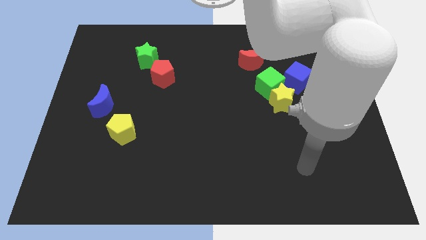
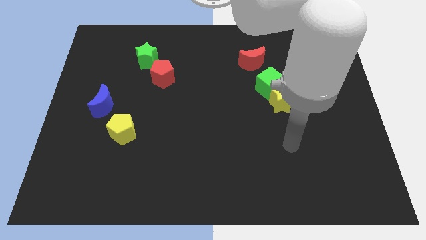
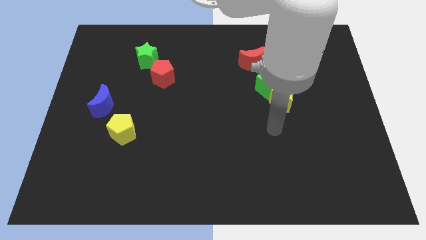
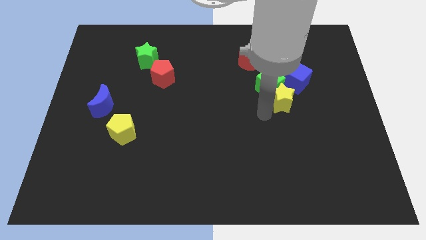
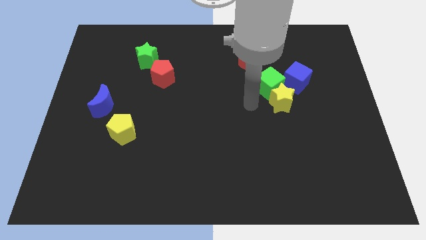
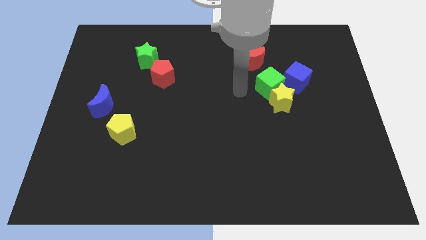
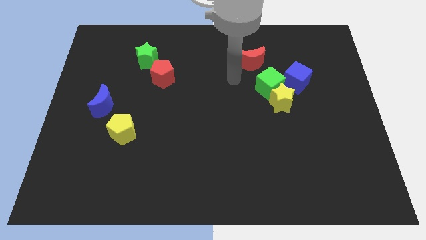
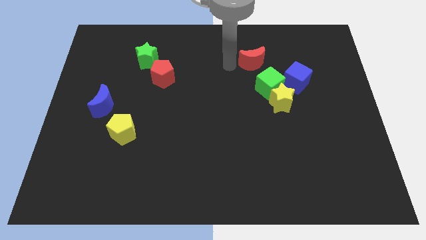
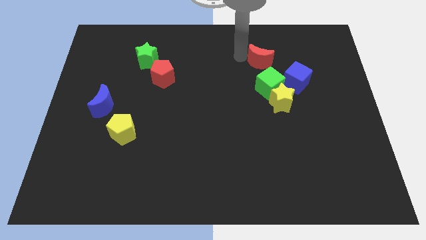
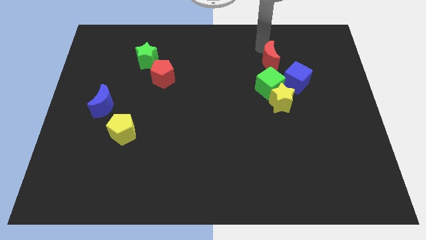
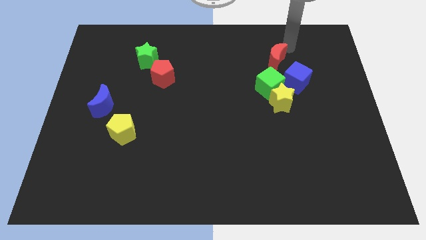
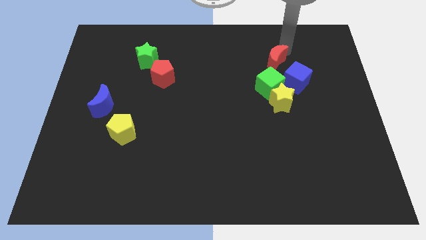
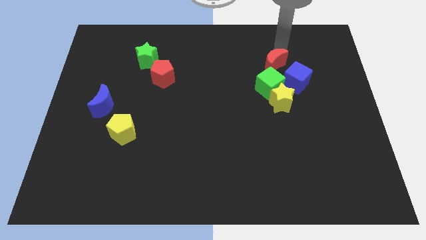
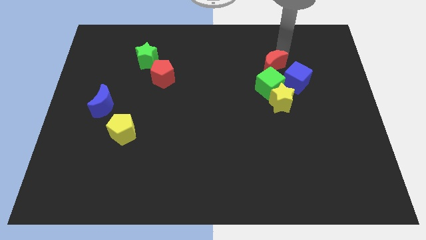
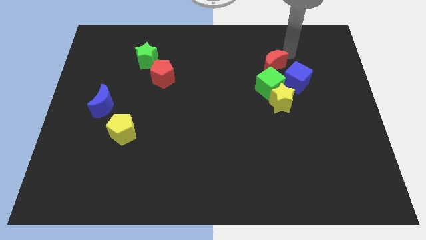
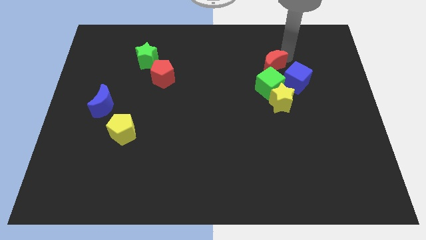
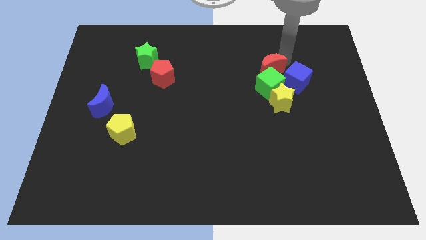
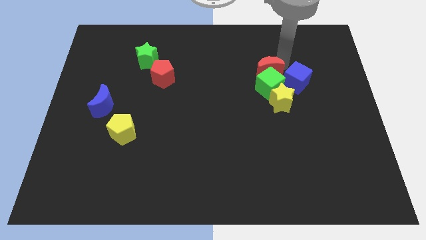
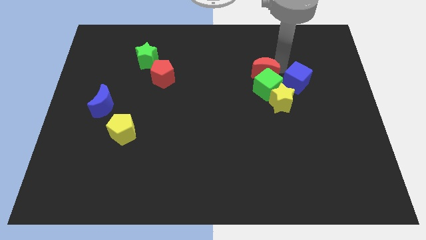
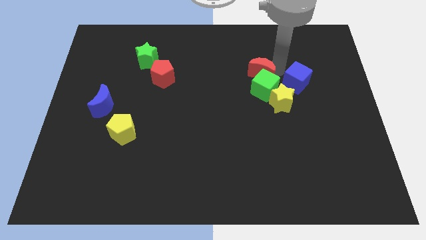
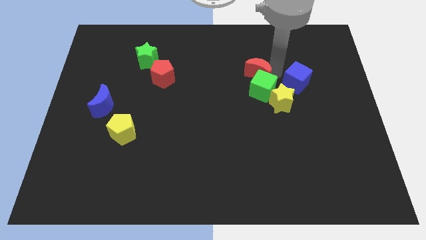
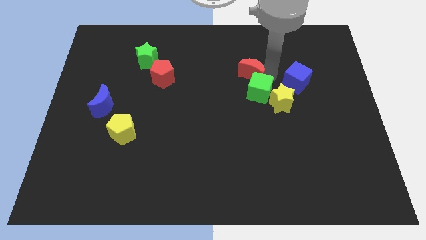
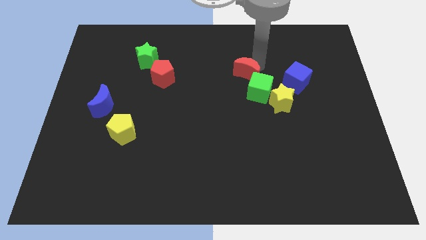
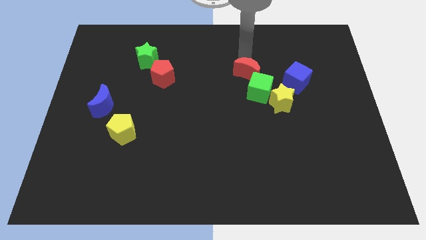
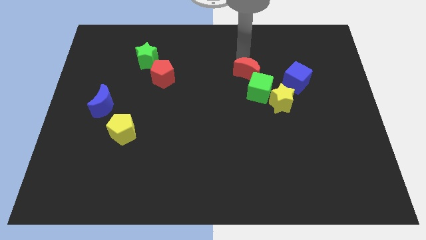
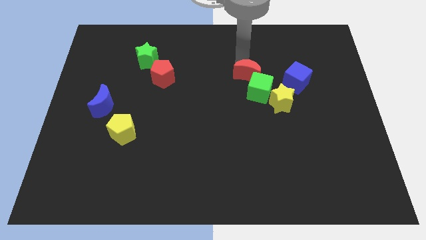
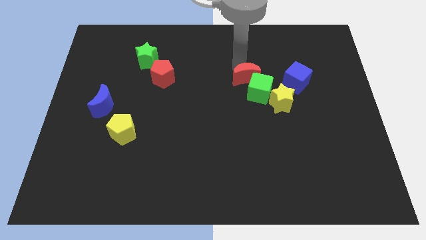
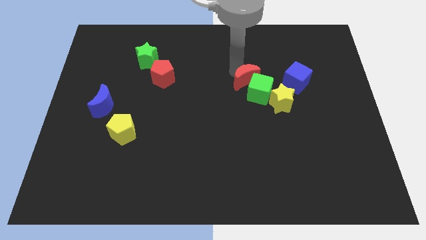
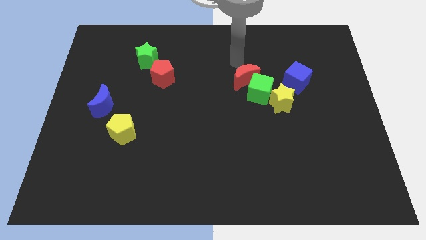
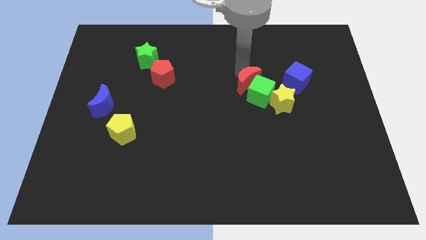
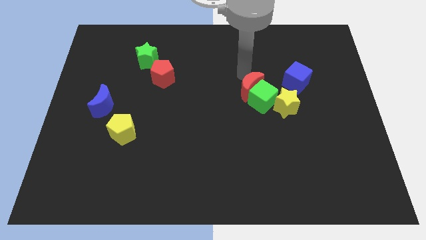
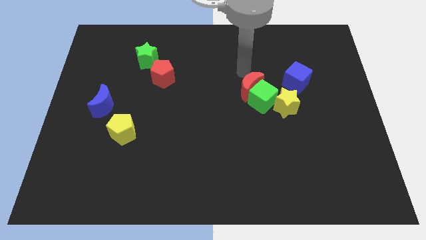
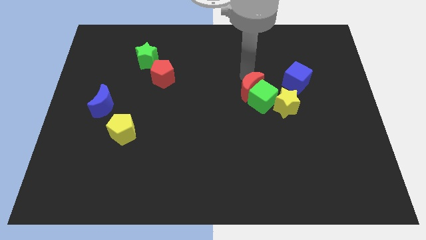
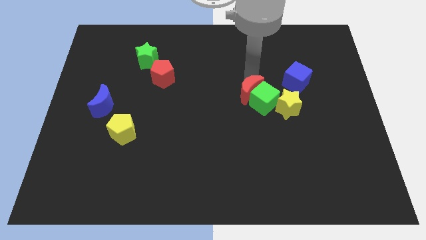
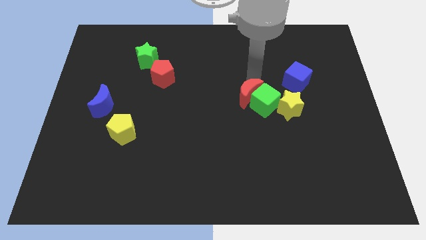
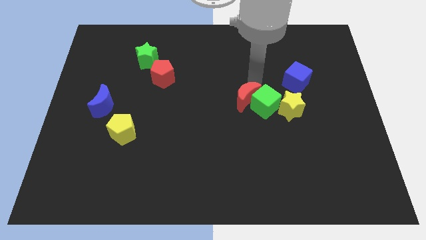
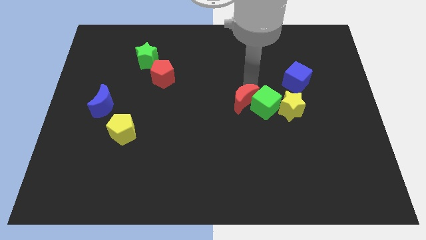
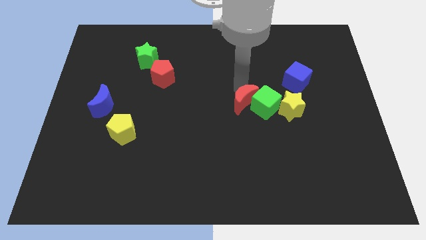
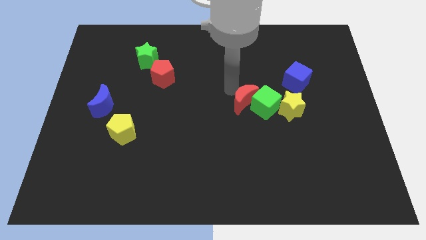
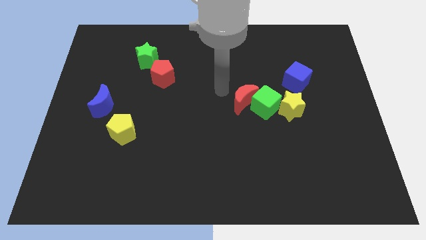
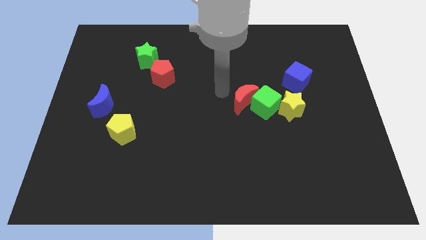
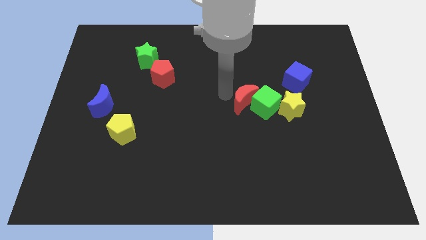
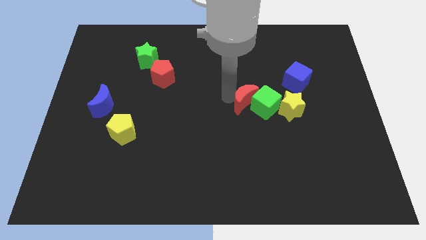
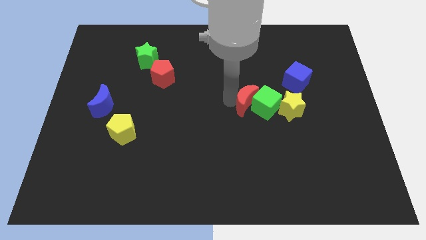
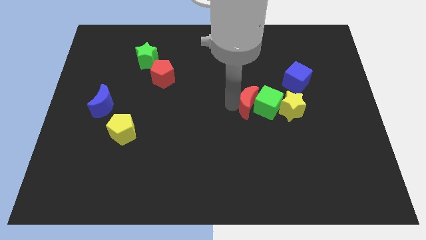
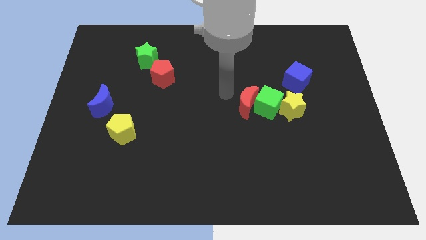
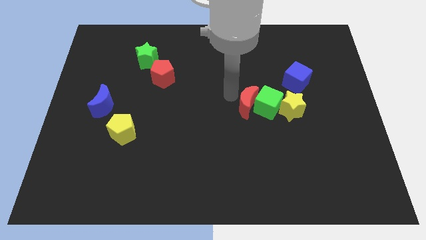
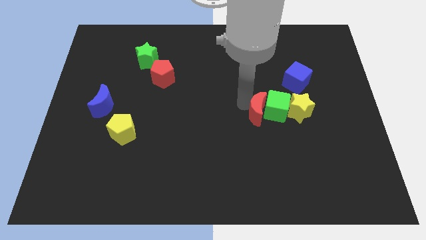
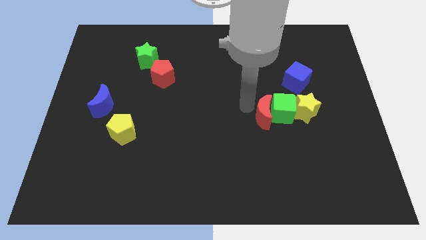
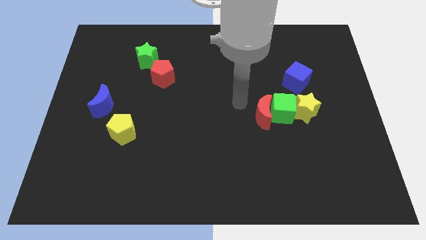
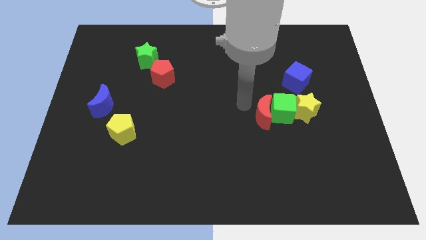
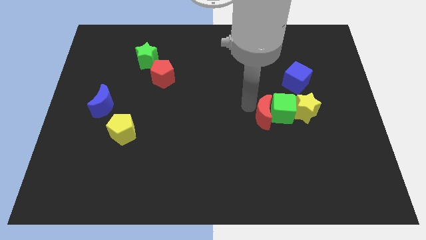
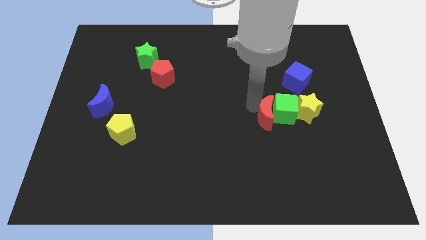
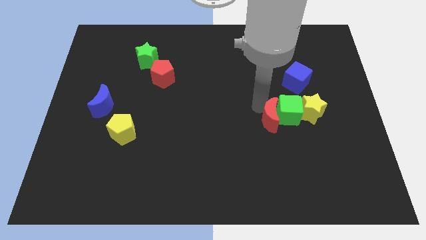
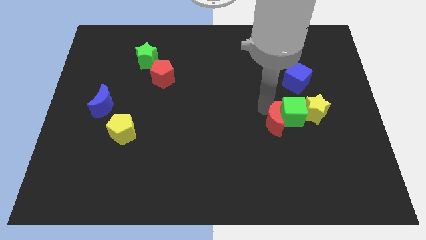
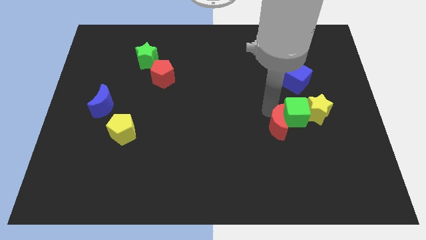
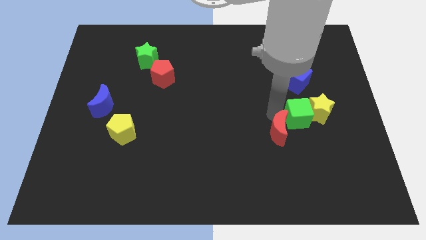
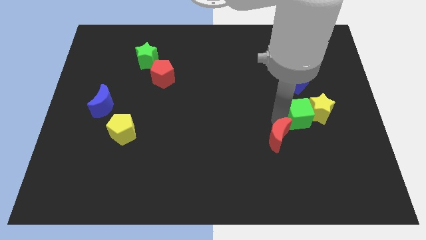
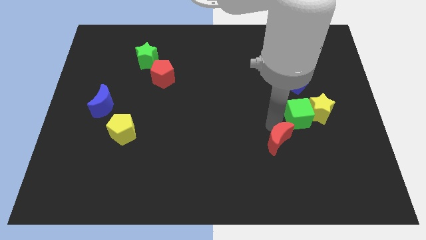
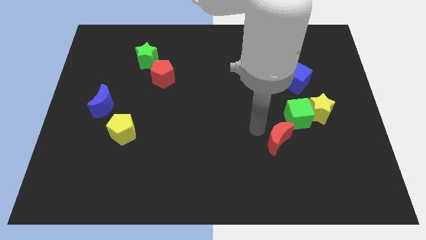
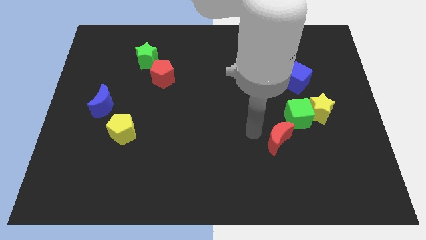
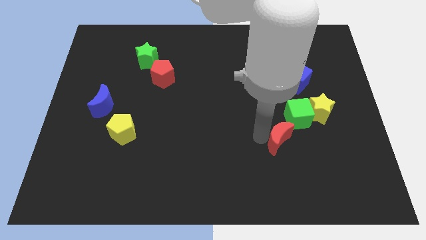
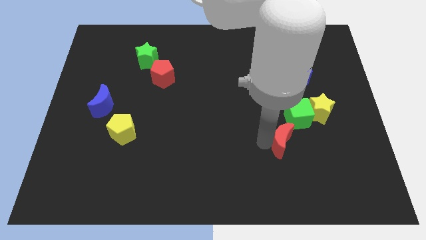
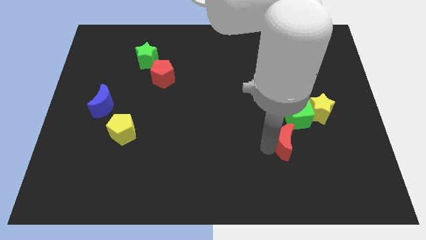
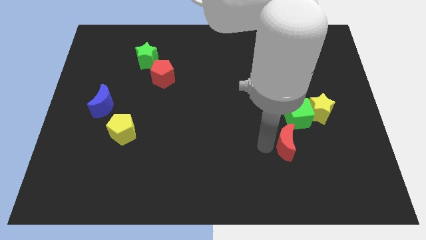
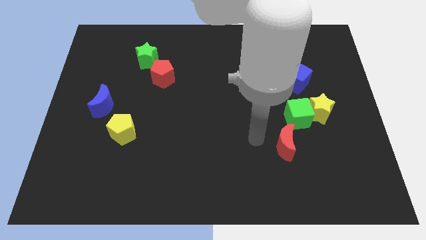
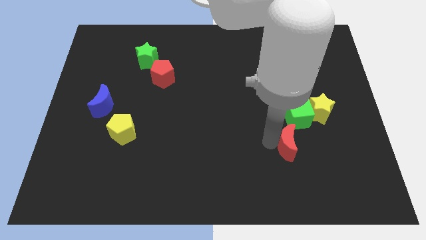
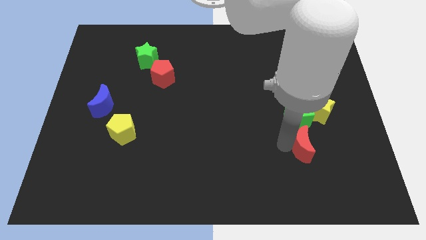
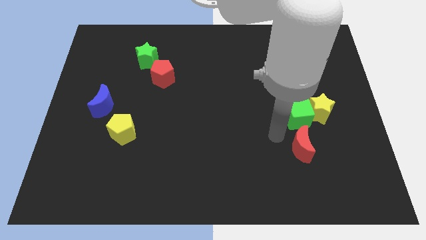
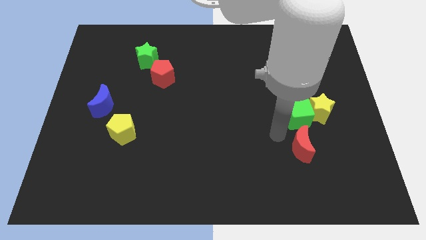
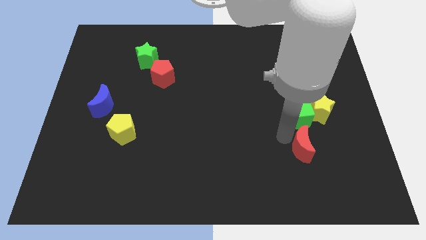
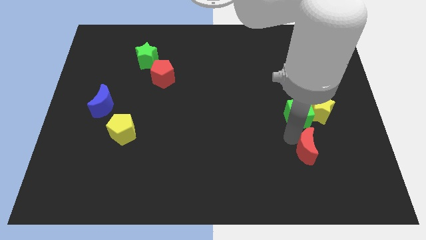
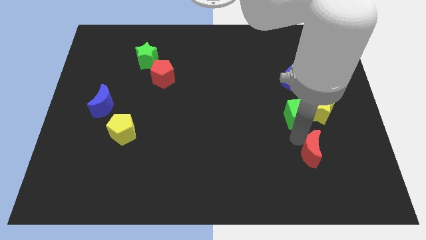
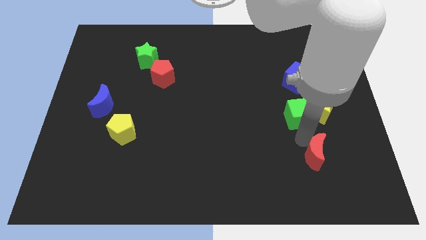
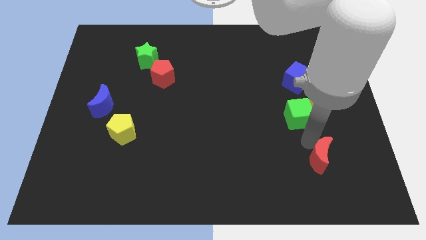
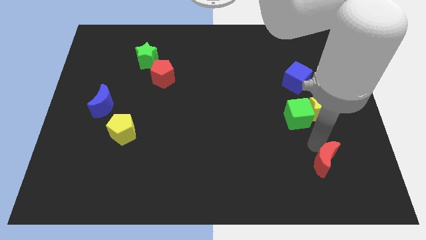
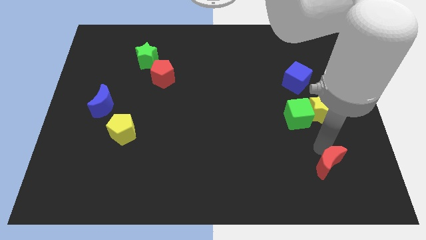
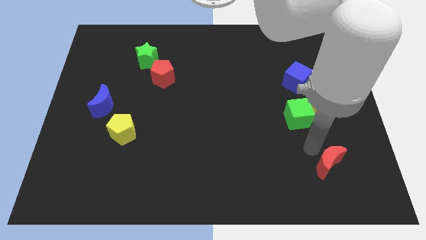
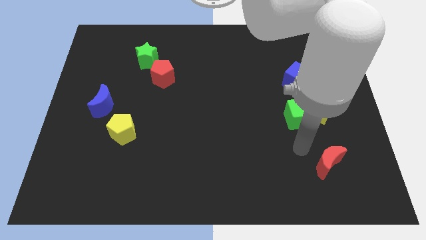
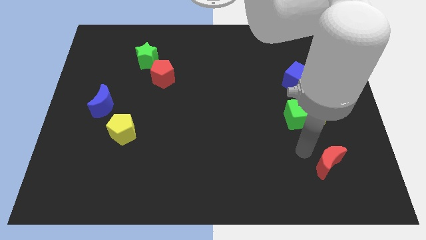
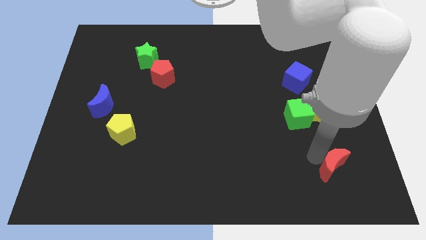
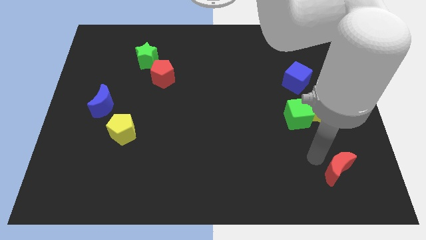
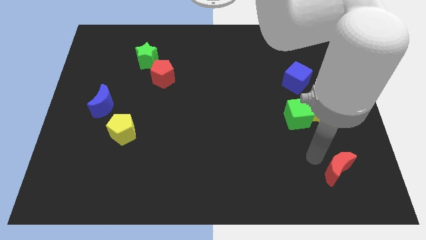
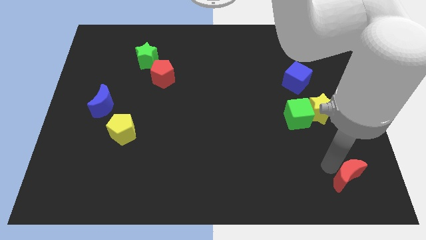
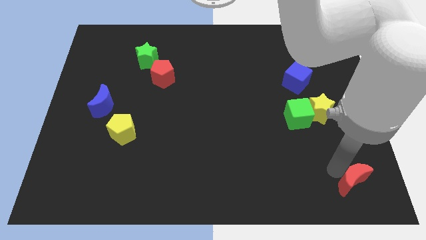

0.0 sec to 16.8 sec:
put the red moon to the bottom right
